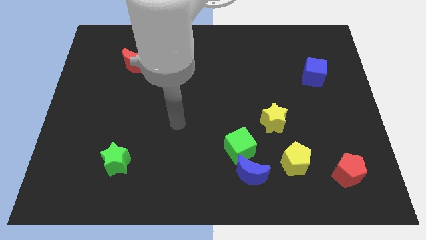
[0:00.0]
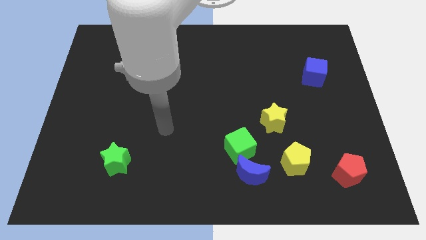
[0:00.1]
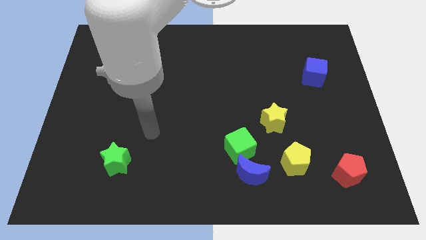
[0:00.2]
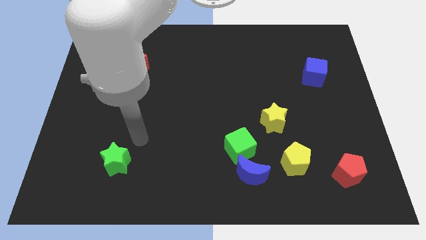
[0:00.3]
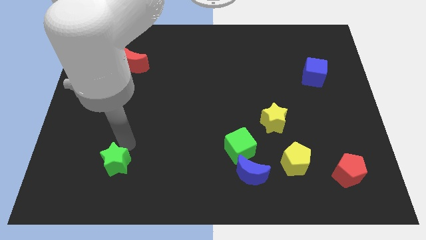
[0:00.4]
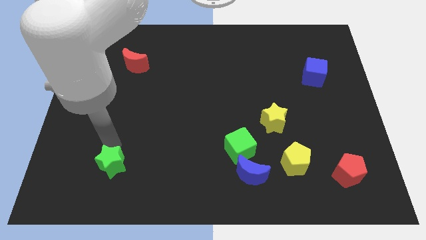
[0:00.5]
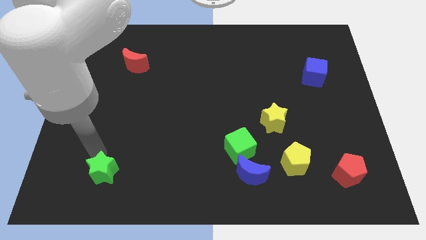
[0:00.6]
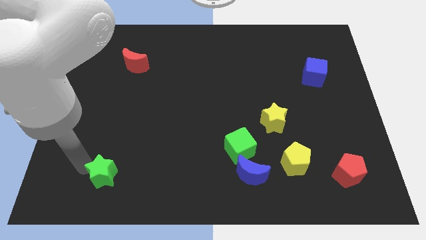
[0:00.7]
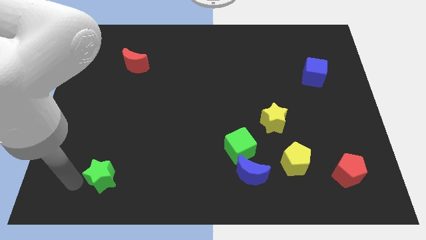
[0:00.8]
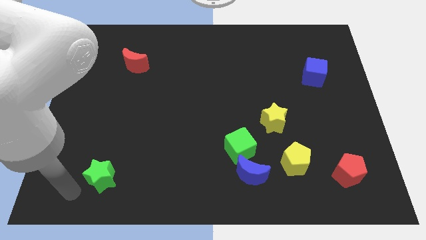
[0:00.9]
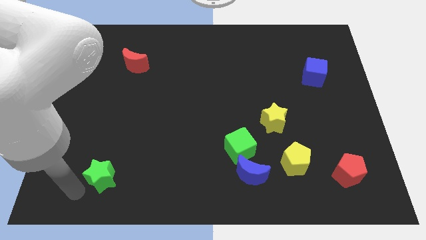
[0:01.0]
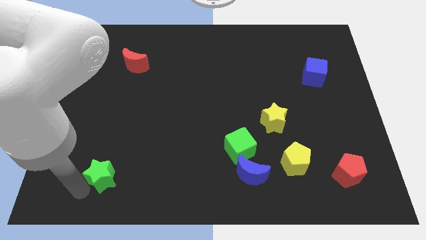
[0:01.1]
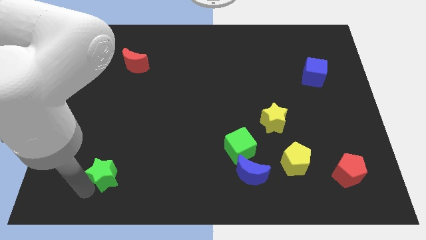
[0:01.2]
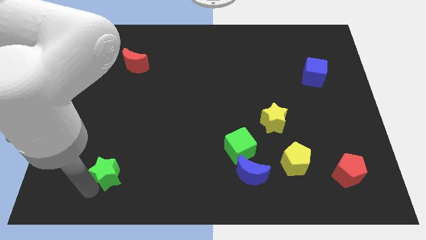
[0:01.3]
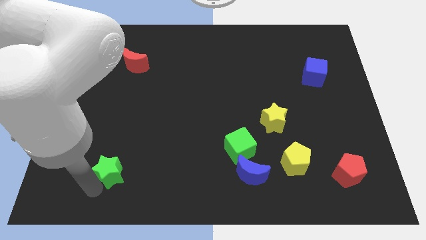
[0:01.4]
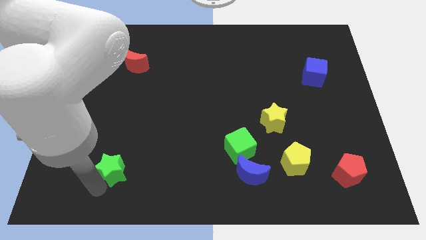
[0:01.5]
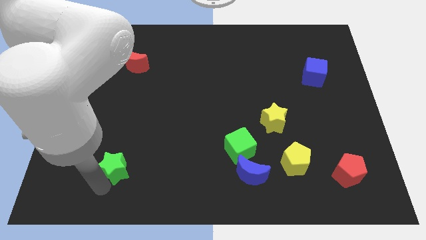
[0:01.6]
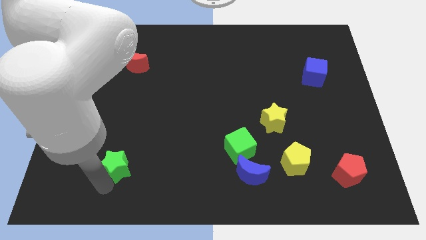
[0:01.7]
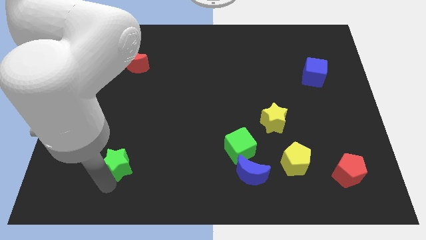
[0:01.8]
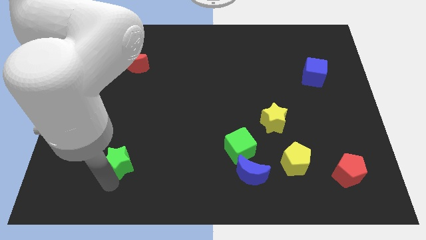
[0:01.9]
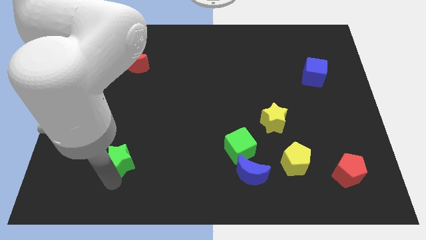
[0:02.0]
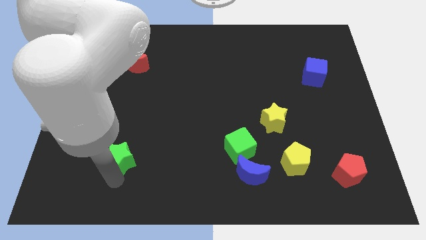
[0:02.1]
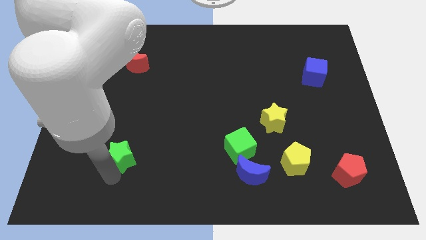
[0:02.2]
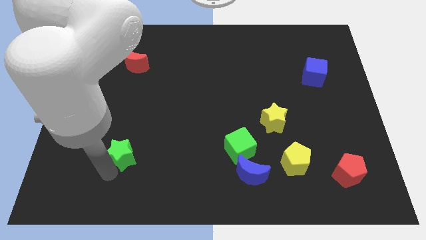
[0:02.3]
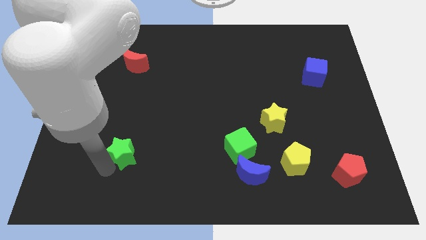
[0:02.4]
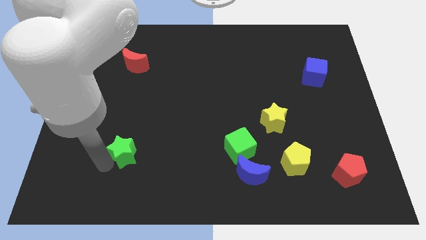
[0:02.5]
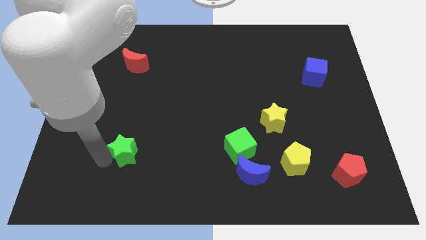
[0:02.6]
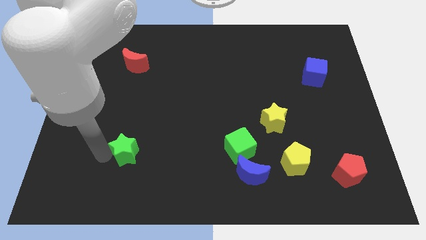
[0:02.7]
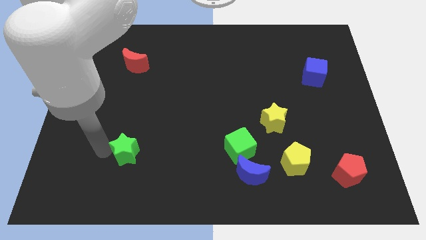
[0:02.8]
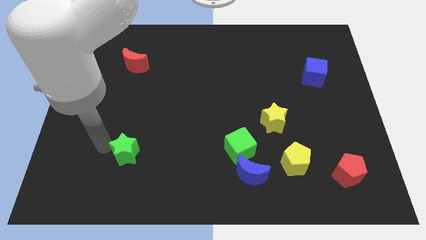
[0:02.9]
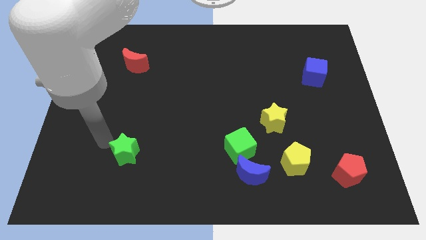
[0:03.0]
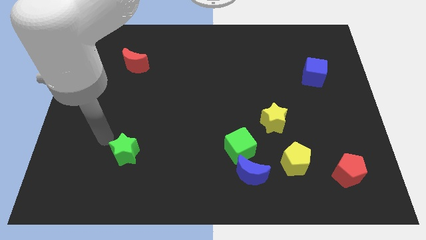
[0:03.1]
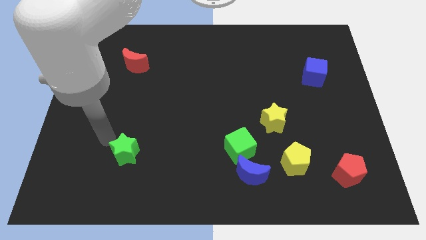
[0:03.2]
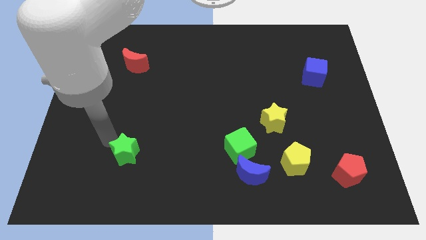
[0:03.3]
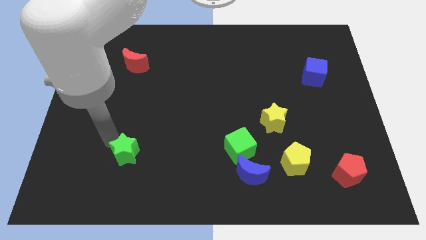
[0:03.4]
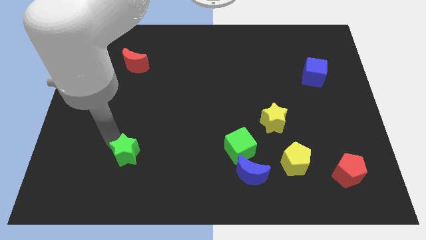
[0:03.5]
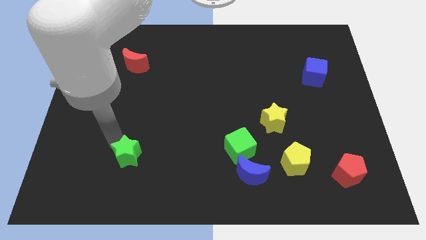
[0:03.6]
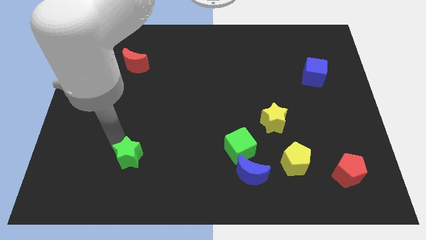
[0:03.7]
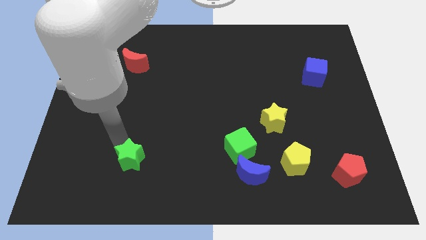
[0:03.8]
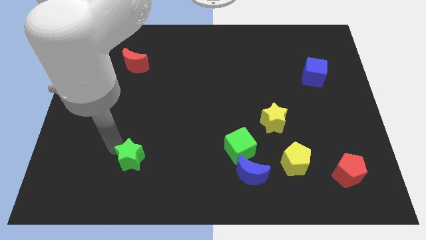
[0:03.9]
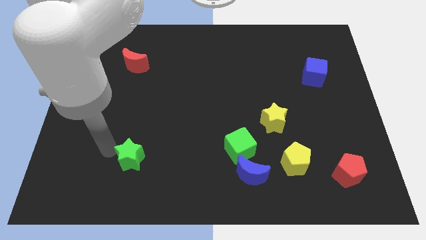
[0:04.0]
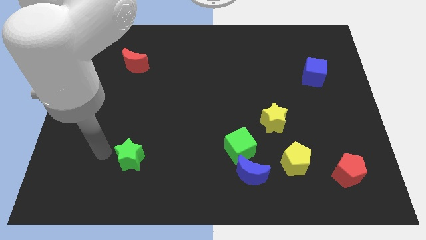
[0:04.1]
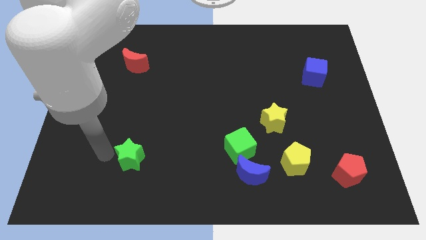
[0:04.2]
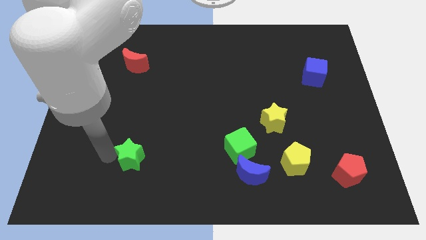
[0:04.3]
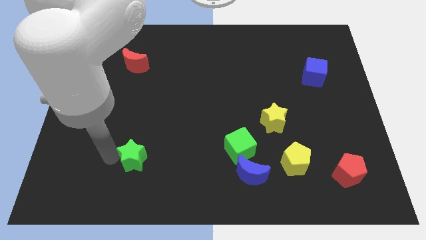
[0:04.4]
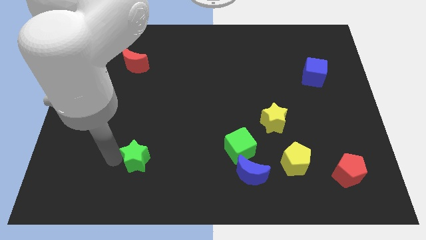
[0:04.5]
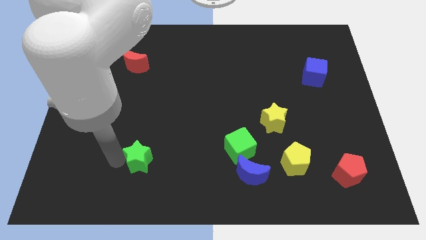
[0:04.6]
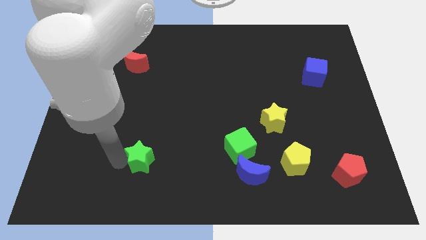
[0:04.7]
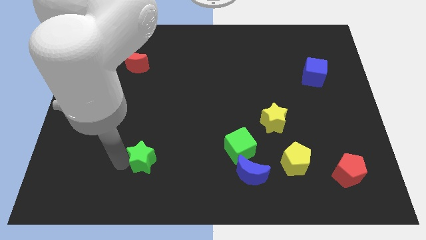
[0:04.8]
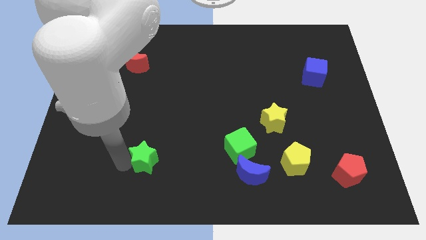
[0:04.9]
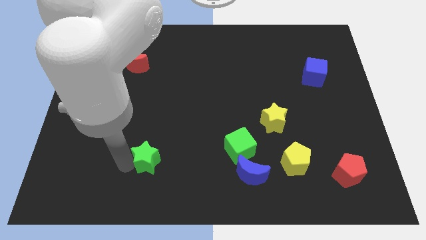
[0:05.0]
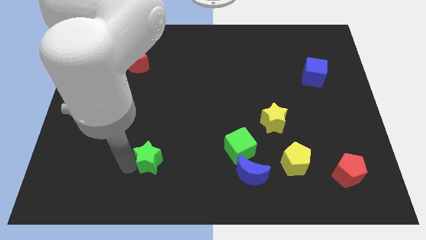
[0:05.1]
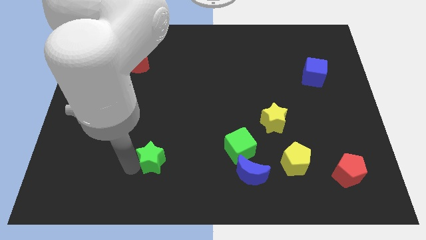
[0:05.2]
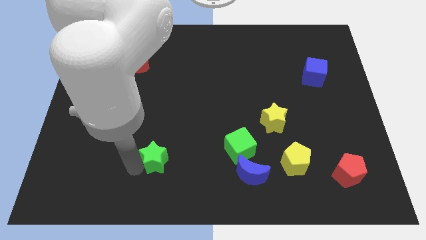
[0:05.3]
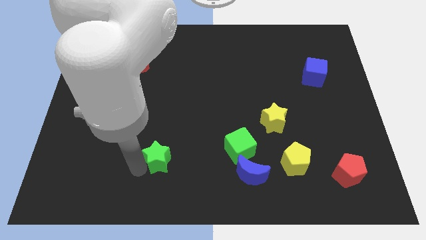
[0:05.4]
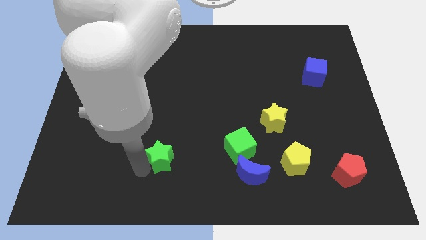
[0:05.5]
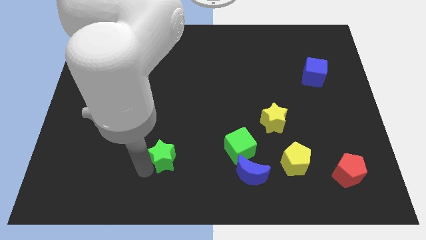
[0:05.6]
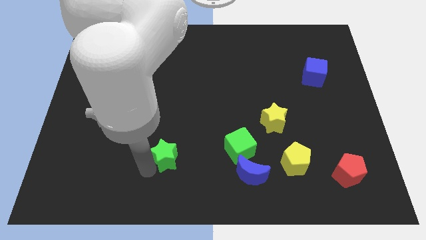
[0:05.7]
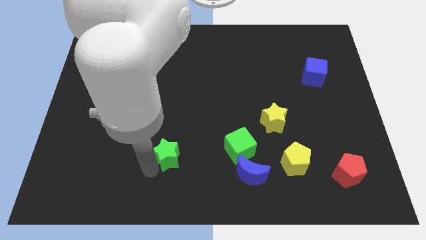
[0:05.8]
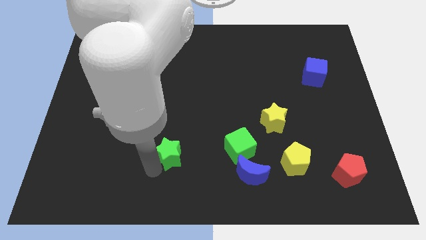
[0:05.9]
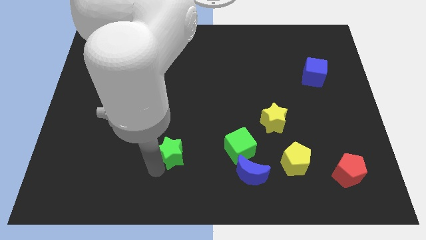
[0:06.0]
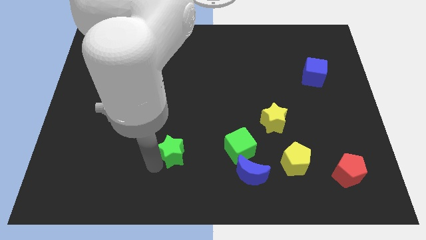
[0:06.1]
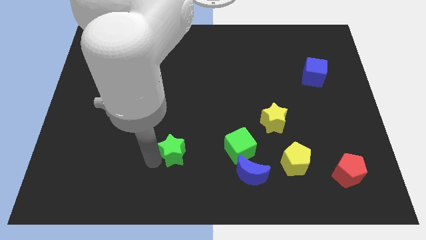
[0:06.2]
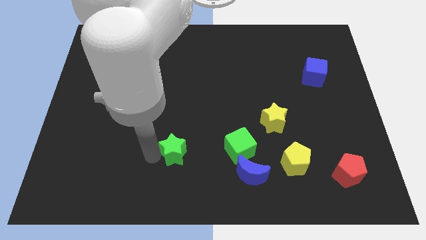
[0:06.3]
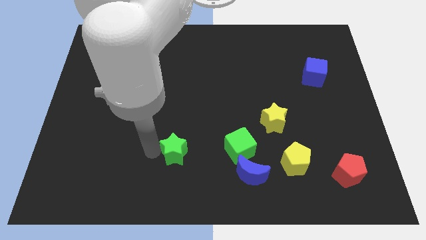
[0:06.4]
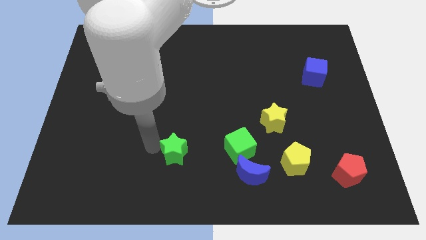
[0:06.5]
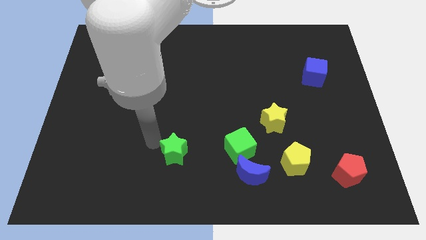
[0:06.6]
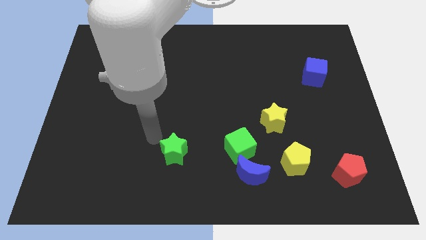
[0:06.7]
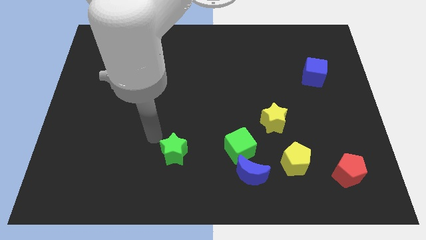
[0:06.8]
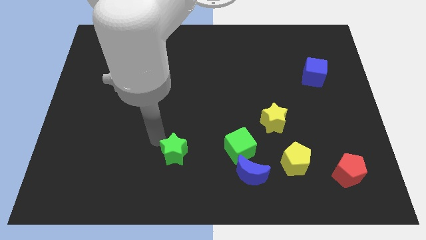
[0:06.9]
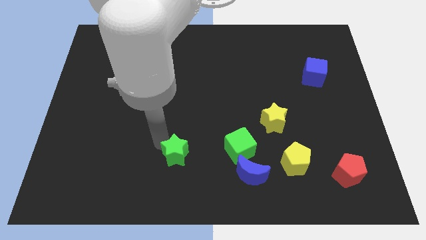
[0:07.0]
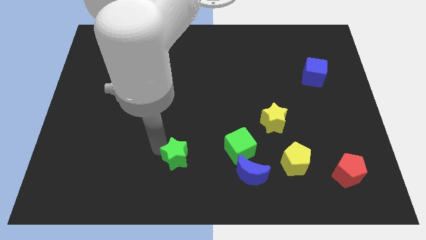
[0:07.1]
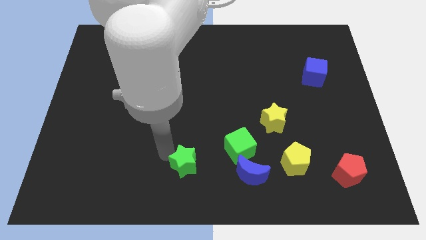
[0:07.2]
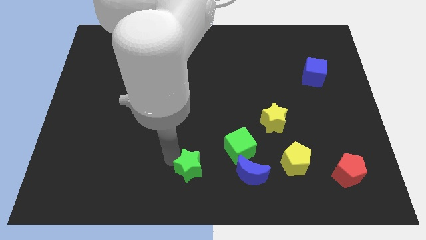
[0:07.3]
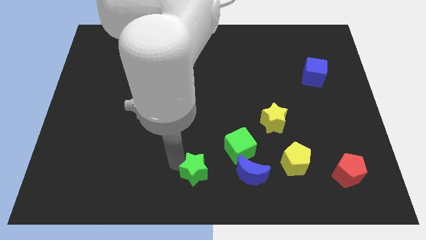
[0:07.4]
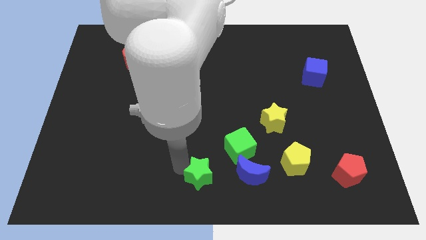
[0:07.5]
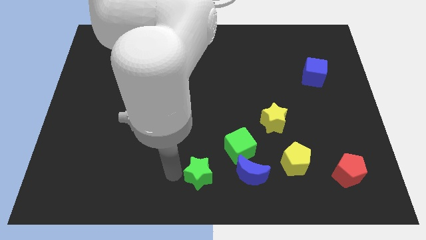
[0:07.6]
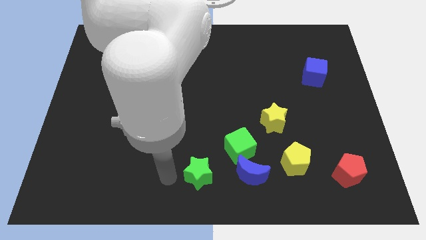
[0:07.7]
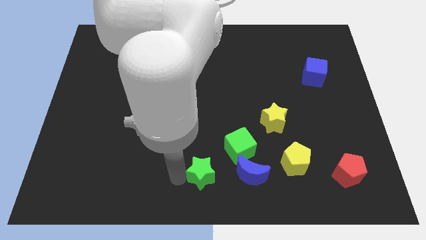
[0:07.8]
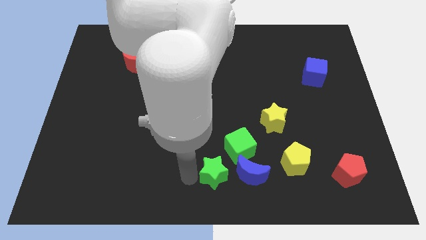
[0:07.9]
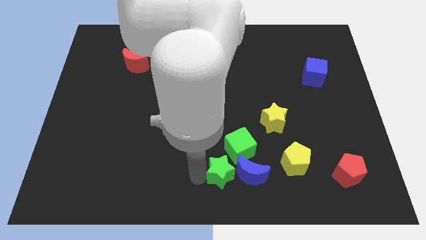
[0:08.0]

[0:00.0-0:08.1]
slide the green star next to the blue moon
